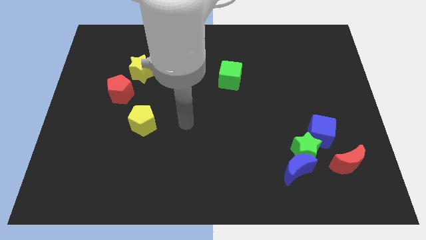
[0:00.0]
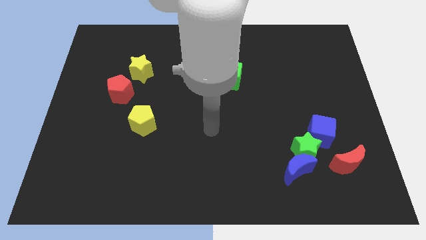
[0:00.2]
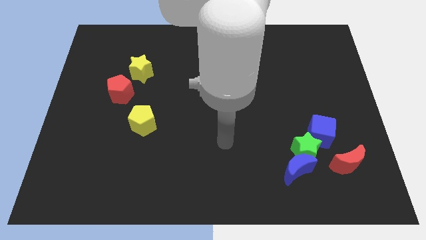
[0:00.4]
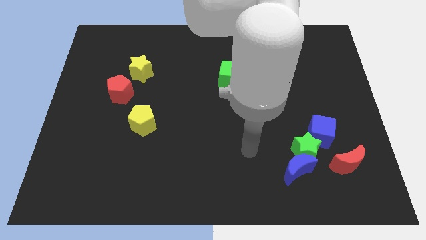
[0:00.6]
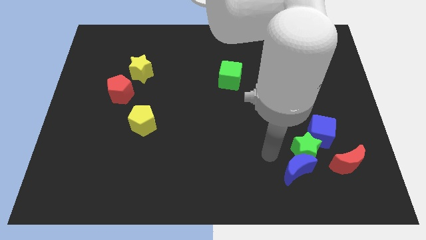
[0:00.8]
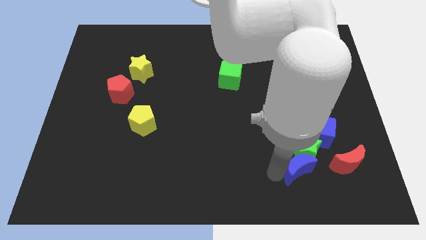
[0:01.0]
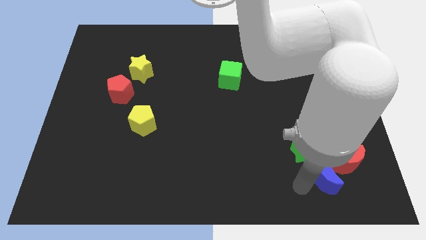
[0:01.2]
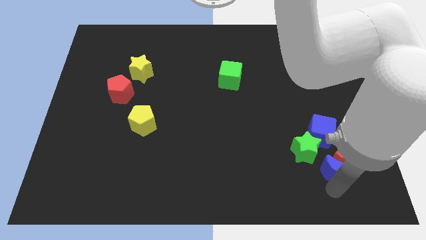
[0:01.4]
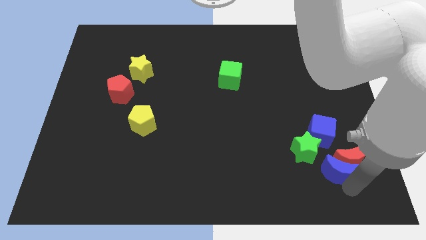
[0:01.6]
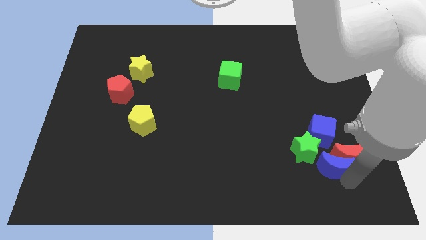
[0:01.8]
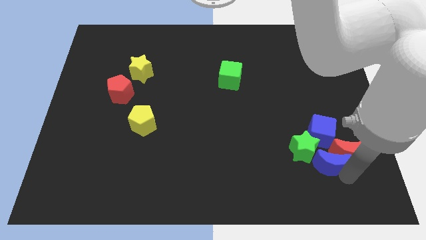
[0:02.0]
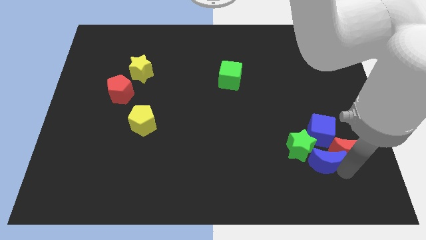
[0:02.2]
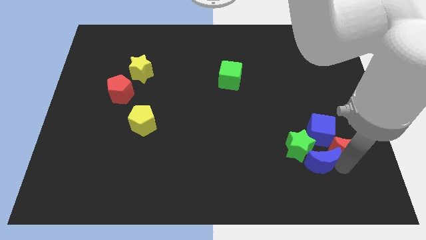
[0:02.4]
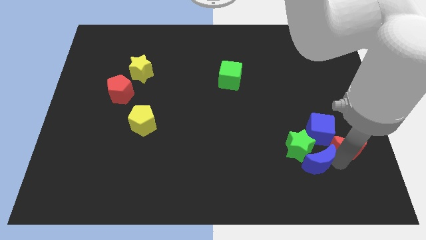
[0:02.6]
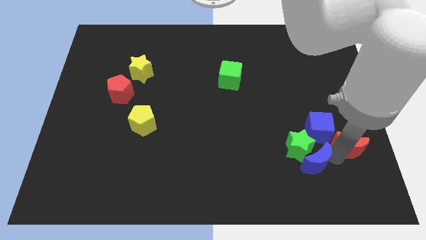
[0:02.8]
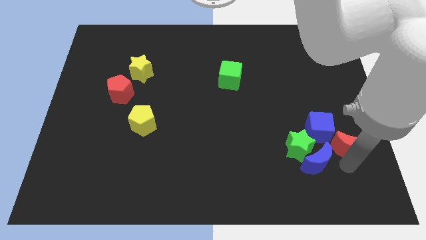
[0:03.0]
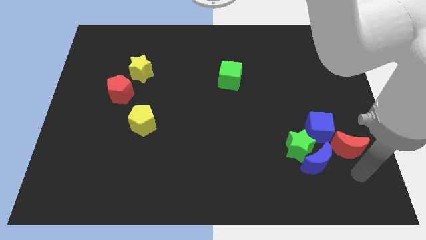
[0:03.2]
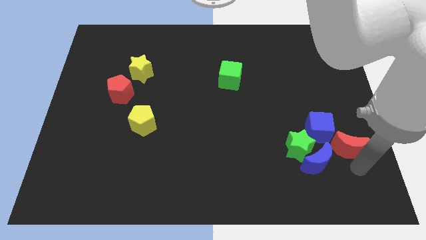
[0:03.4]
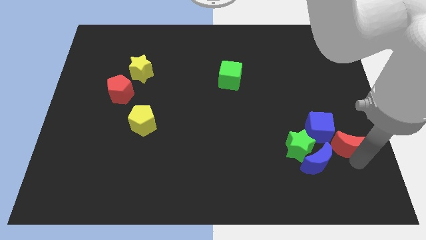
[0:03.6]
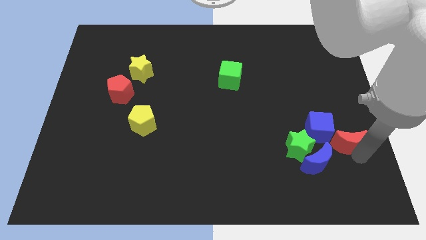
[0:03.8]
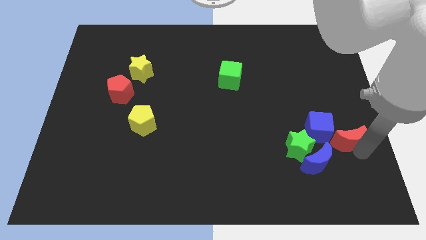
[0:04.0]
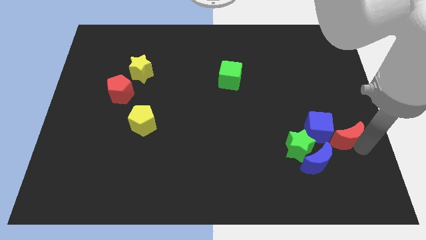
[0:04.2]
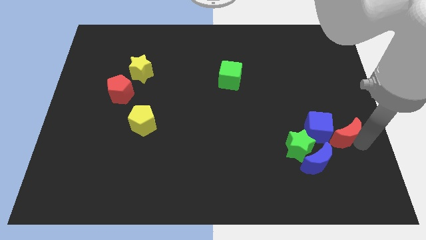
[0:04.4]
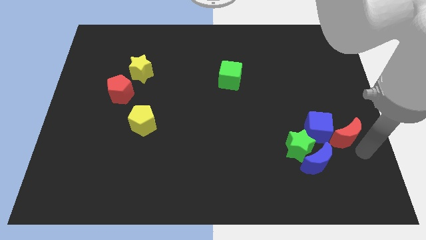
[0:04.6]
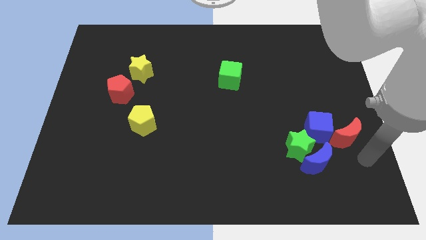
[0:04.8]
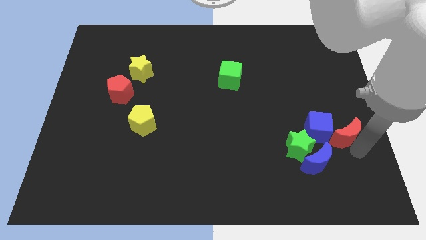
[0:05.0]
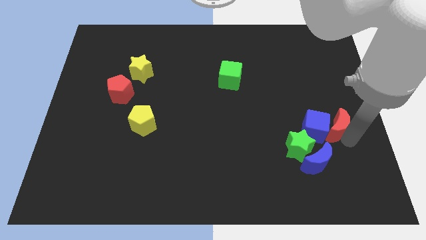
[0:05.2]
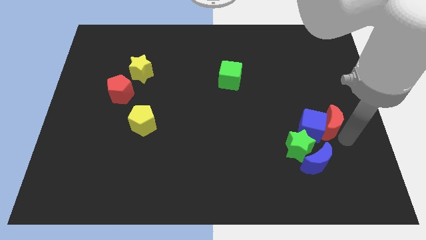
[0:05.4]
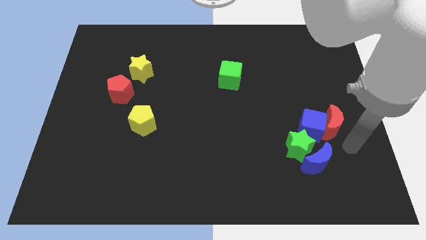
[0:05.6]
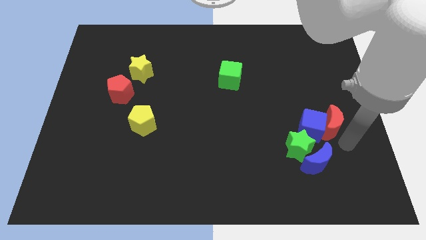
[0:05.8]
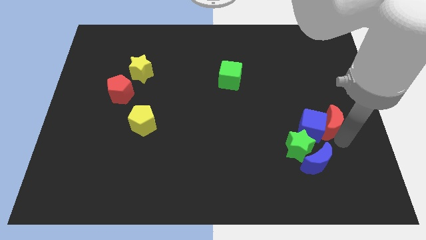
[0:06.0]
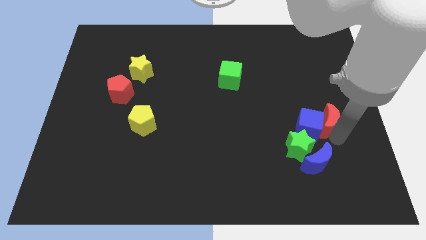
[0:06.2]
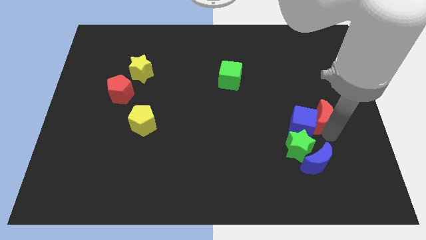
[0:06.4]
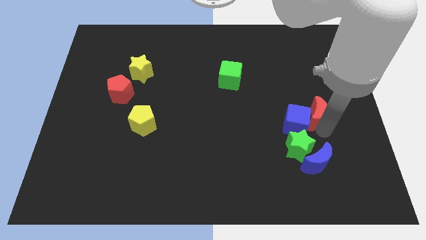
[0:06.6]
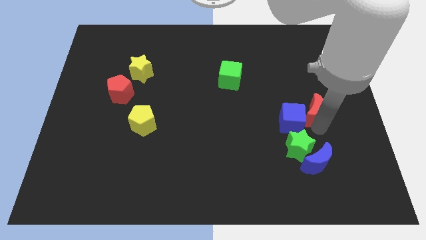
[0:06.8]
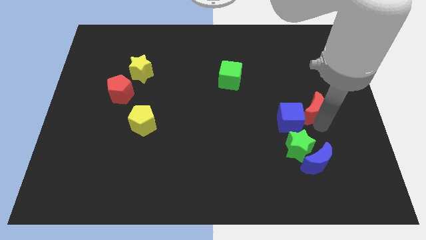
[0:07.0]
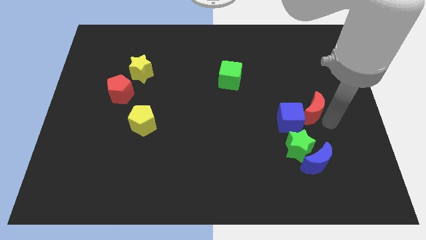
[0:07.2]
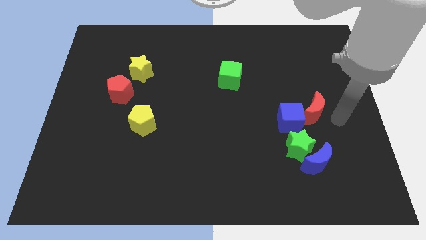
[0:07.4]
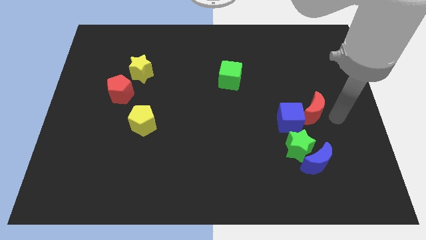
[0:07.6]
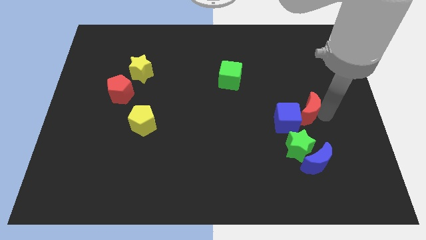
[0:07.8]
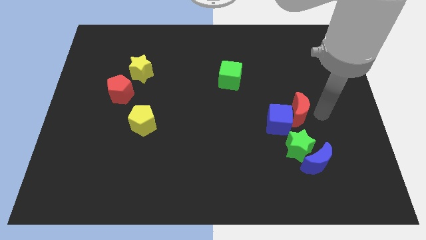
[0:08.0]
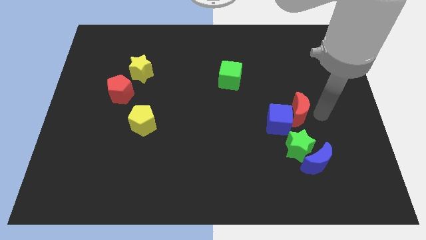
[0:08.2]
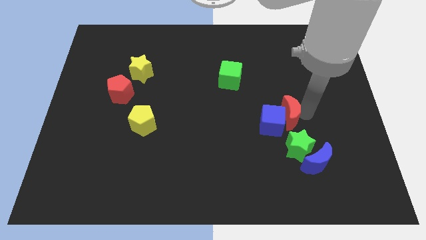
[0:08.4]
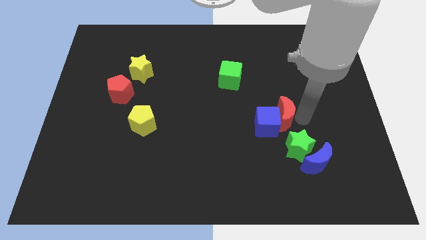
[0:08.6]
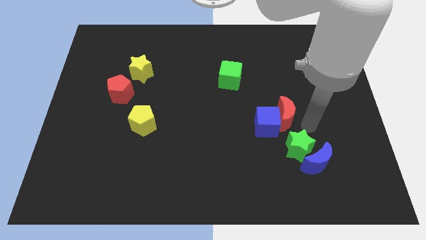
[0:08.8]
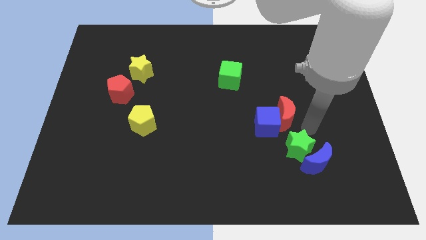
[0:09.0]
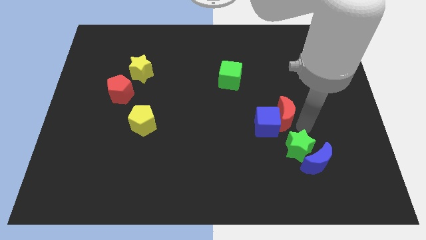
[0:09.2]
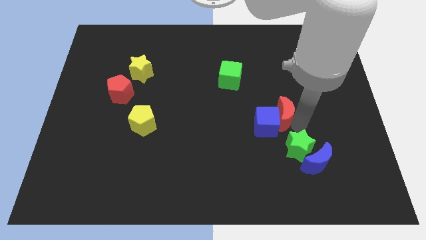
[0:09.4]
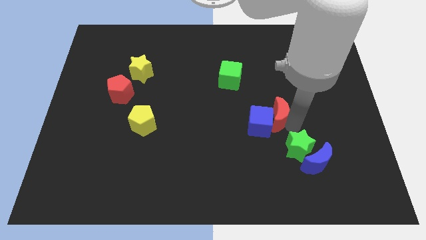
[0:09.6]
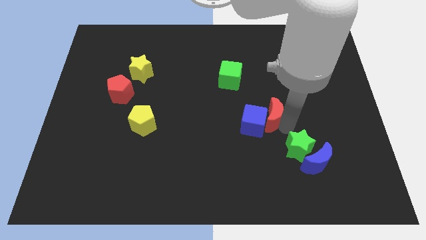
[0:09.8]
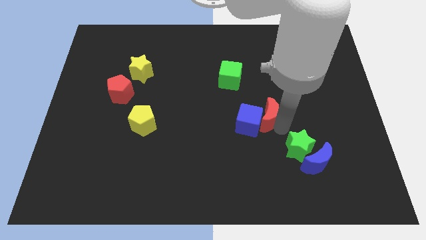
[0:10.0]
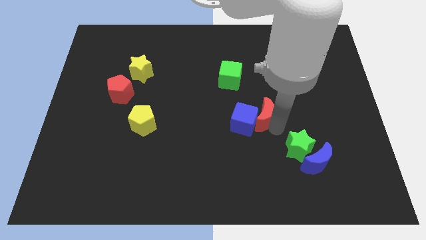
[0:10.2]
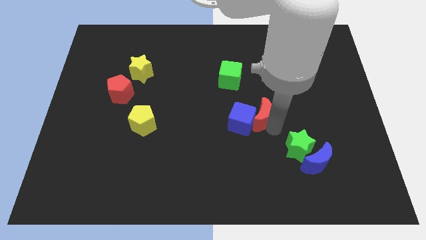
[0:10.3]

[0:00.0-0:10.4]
put the red moon to the center

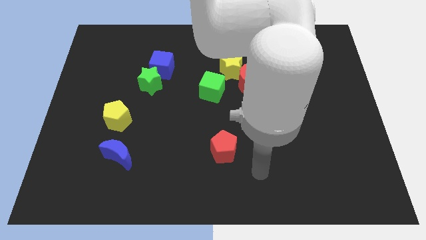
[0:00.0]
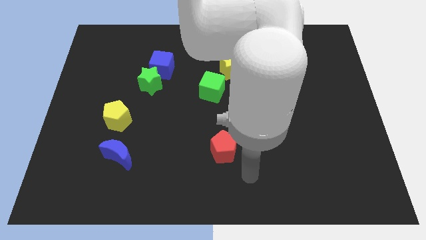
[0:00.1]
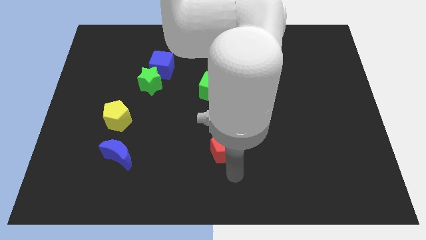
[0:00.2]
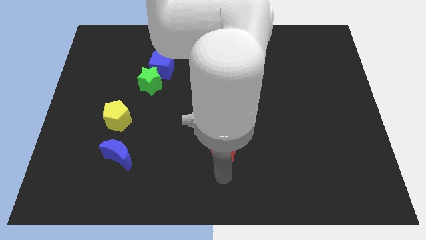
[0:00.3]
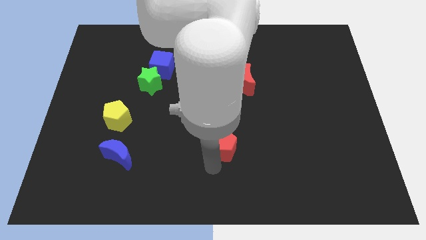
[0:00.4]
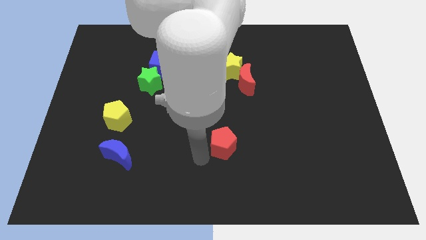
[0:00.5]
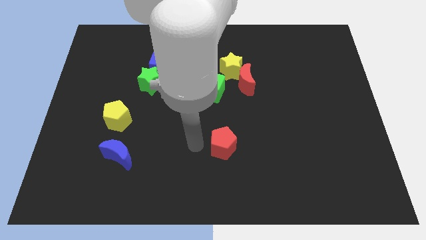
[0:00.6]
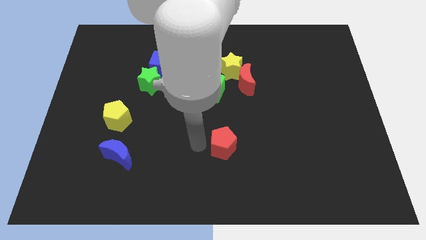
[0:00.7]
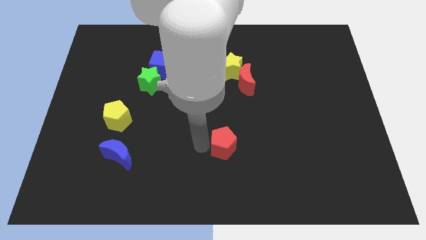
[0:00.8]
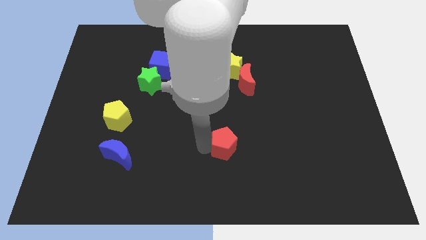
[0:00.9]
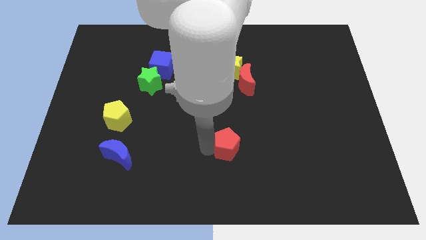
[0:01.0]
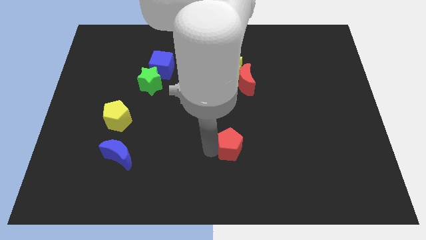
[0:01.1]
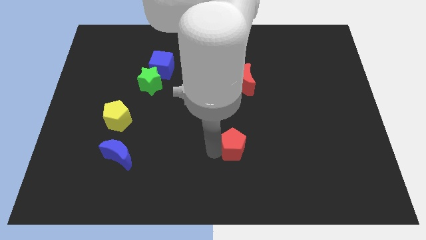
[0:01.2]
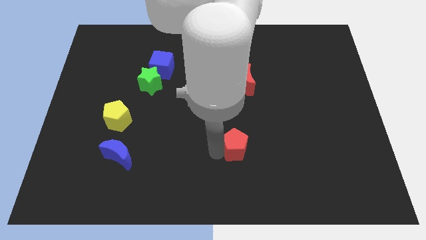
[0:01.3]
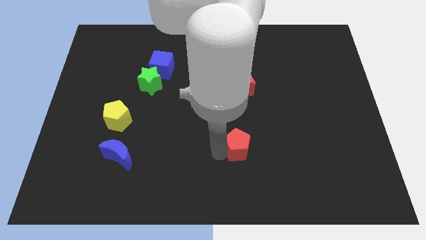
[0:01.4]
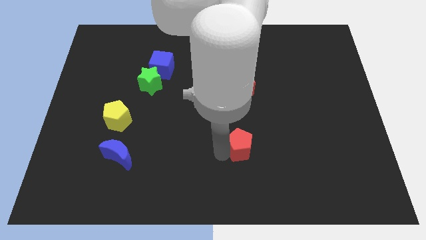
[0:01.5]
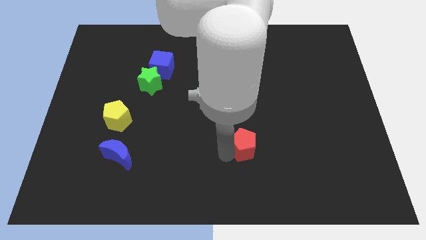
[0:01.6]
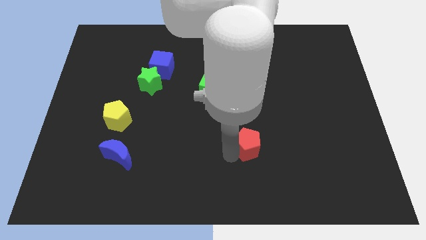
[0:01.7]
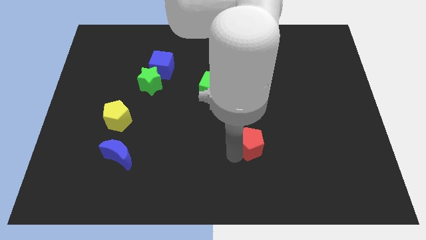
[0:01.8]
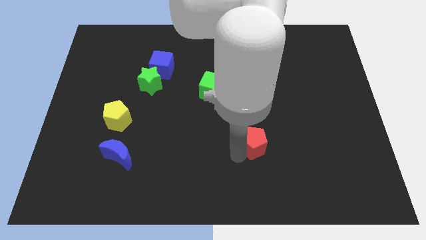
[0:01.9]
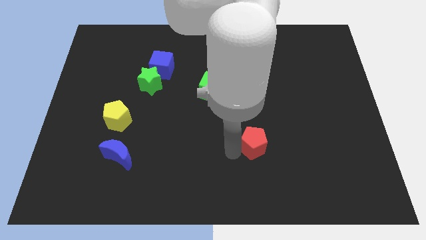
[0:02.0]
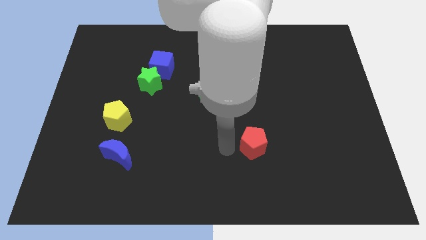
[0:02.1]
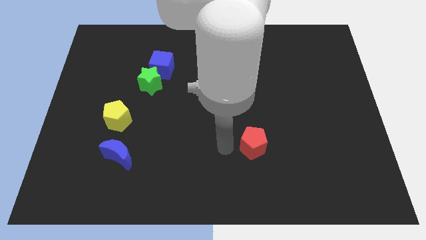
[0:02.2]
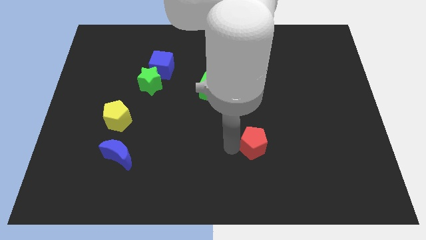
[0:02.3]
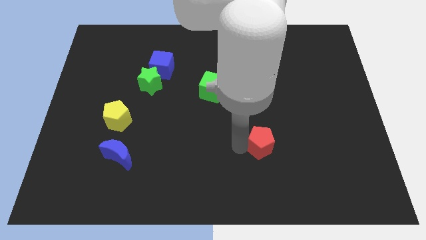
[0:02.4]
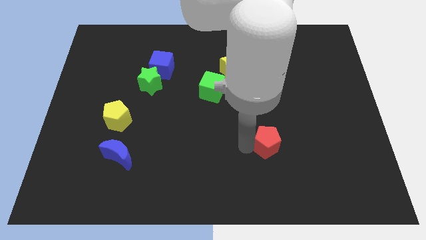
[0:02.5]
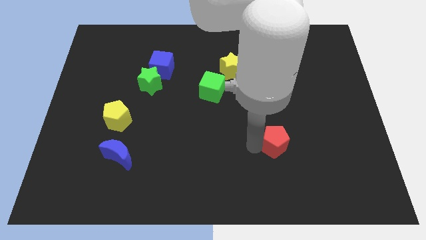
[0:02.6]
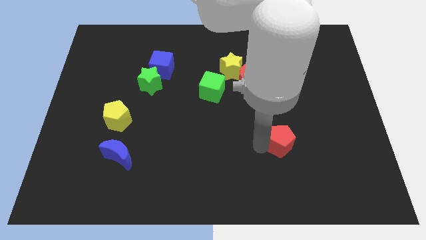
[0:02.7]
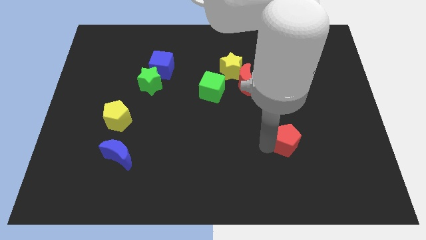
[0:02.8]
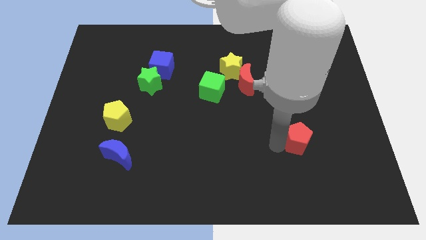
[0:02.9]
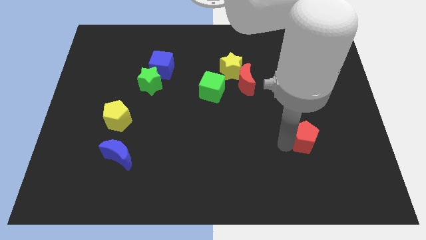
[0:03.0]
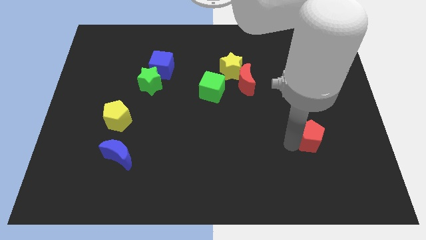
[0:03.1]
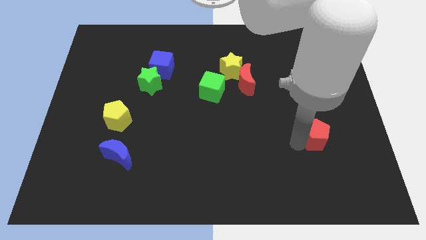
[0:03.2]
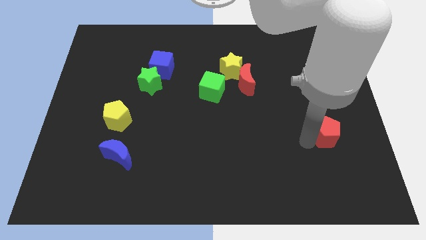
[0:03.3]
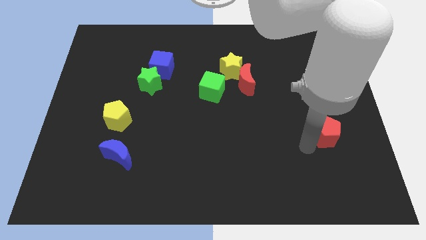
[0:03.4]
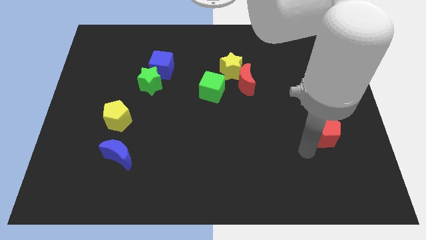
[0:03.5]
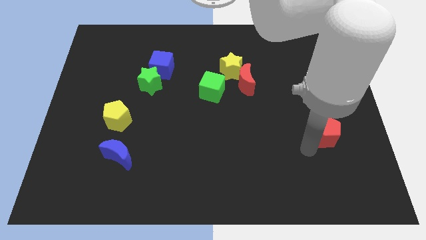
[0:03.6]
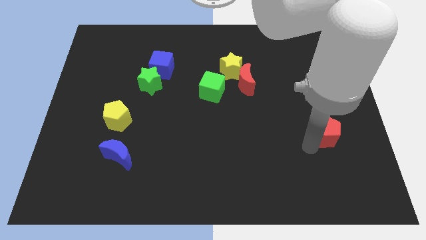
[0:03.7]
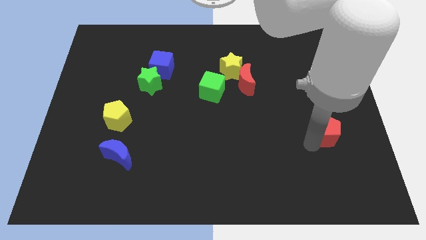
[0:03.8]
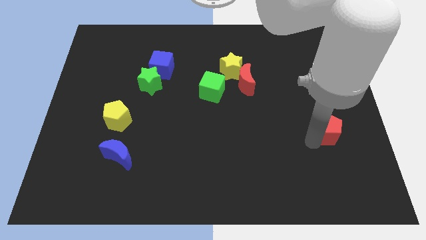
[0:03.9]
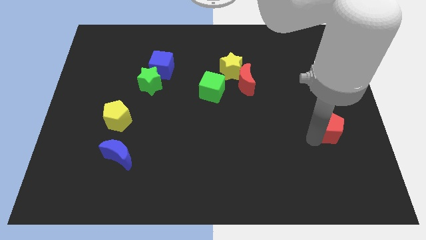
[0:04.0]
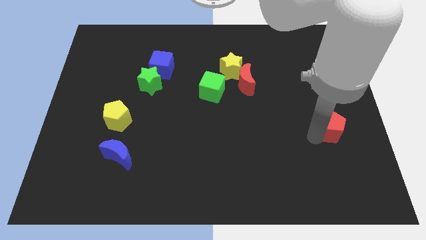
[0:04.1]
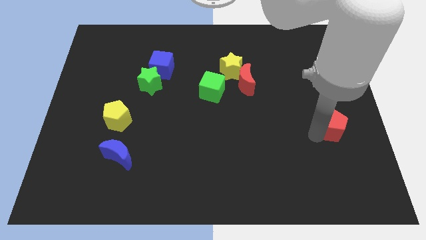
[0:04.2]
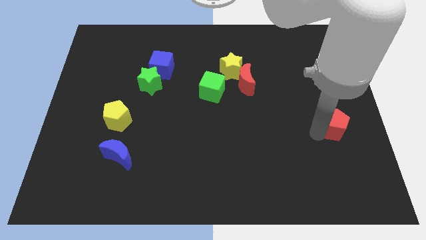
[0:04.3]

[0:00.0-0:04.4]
push the red pentagon to the right side of the board
